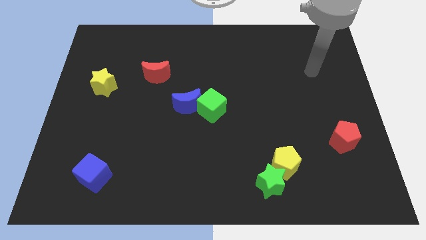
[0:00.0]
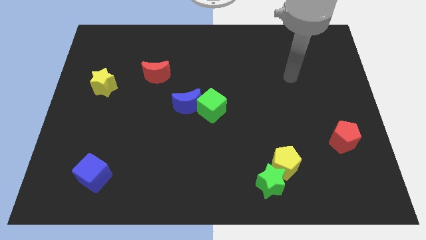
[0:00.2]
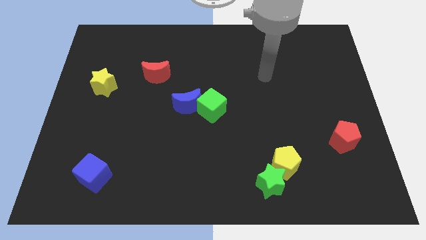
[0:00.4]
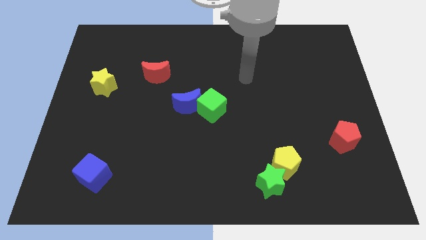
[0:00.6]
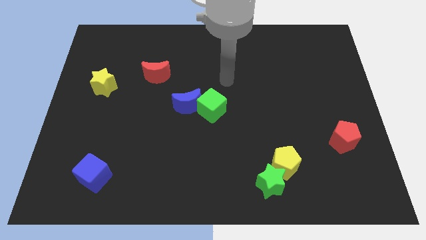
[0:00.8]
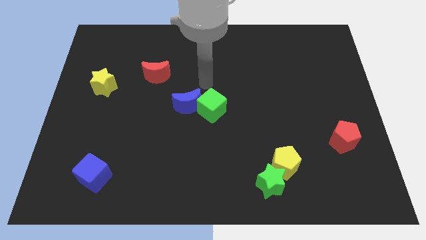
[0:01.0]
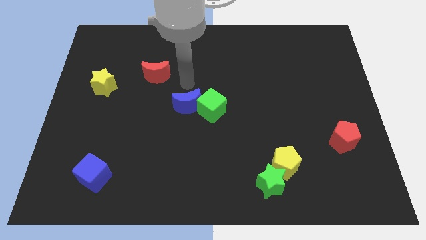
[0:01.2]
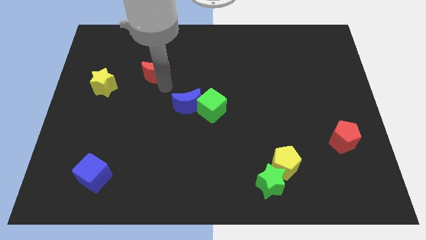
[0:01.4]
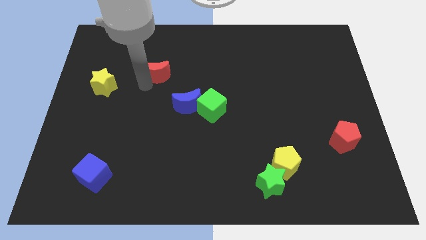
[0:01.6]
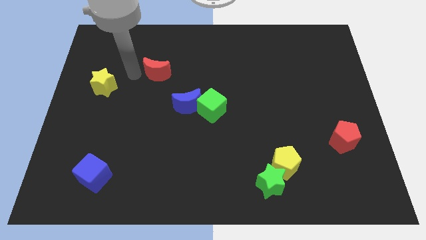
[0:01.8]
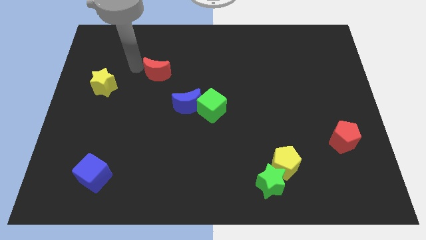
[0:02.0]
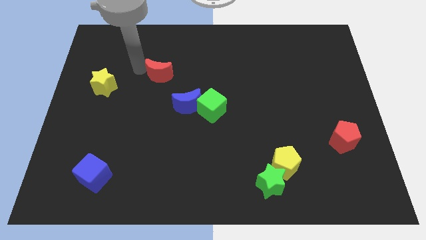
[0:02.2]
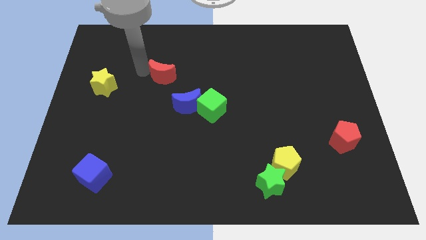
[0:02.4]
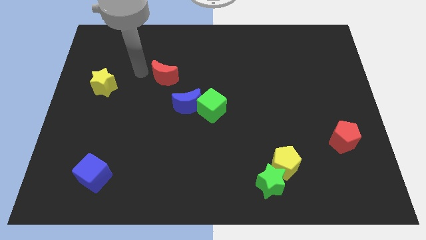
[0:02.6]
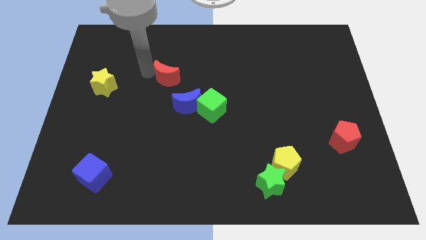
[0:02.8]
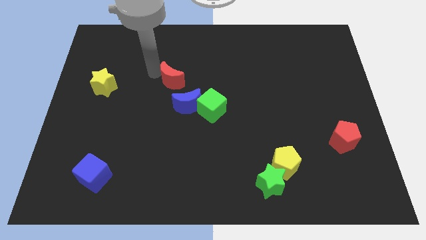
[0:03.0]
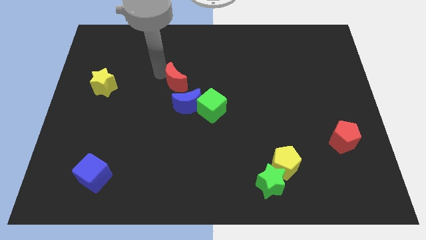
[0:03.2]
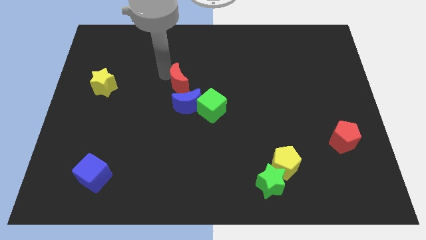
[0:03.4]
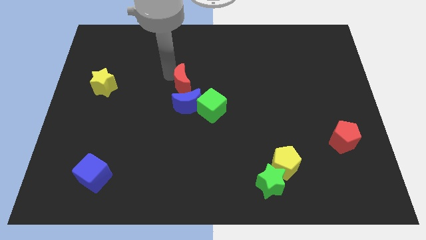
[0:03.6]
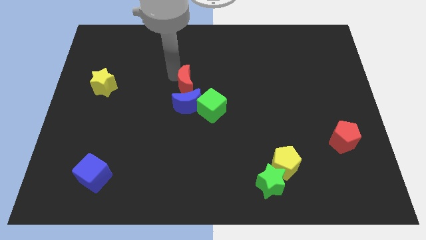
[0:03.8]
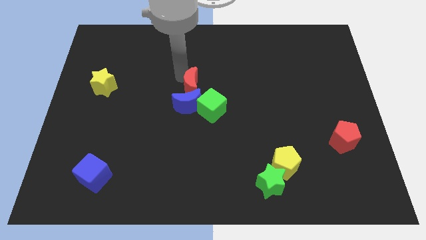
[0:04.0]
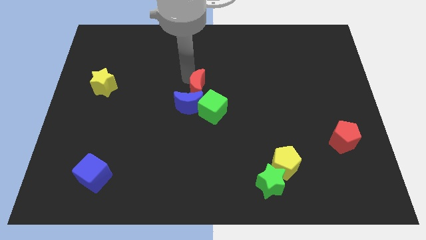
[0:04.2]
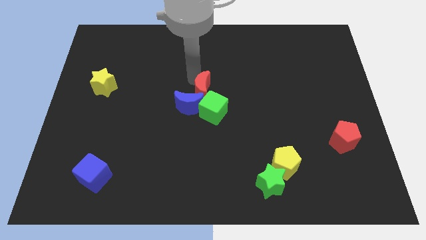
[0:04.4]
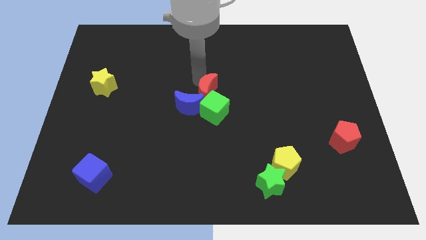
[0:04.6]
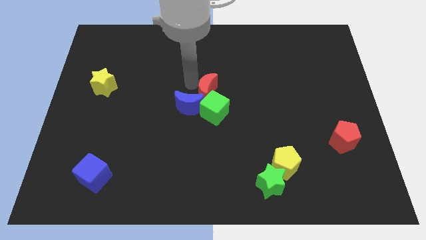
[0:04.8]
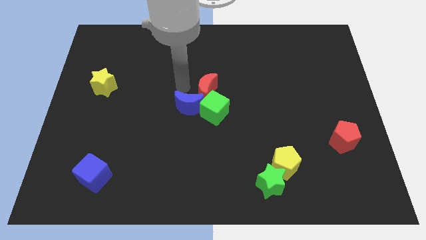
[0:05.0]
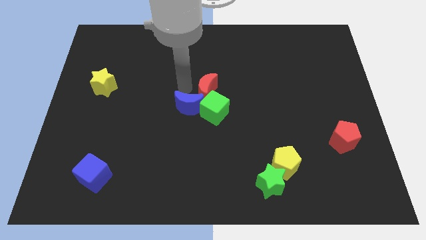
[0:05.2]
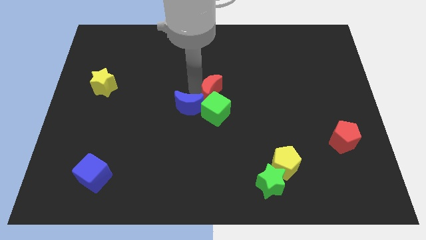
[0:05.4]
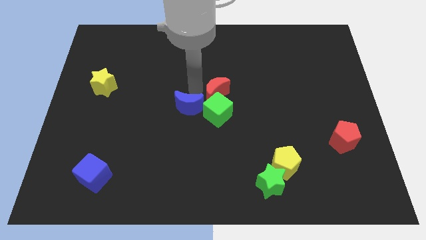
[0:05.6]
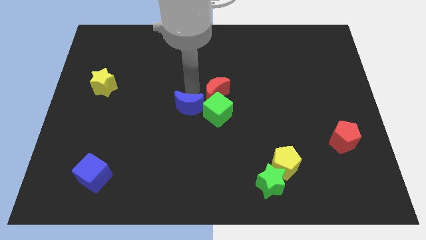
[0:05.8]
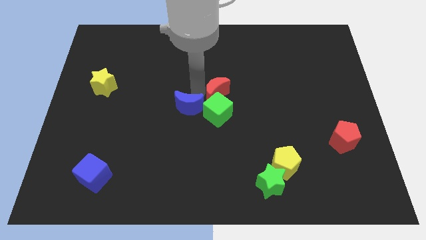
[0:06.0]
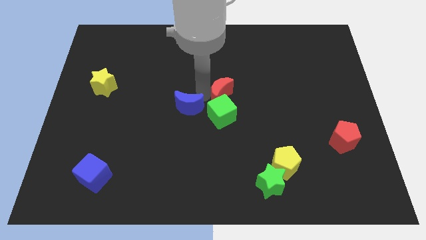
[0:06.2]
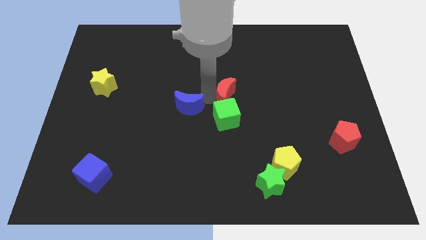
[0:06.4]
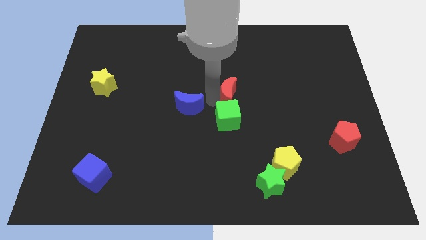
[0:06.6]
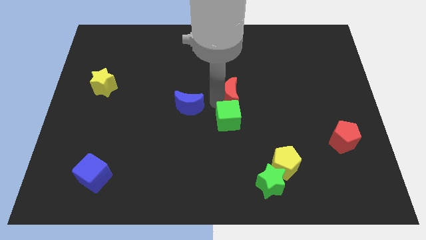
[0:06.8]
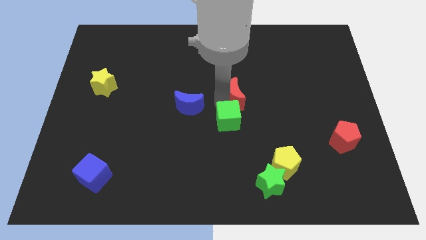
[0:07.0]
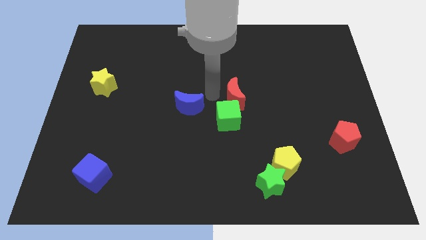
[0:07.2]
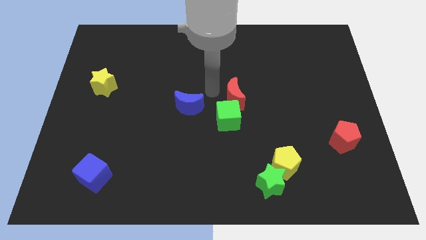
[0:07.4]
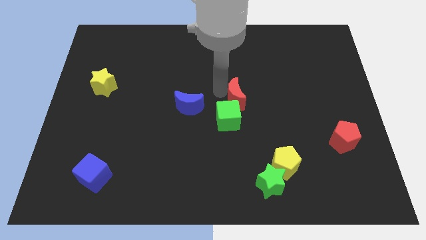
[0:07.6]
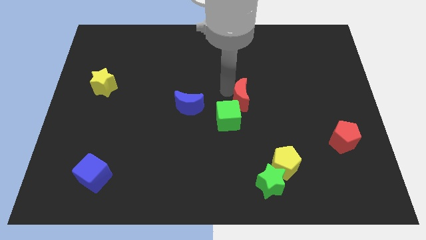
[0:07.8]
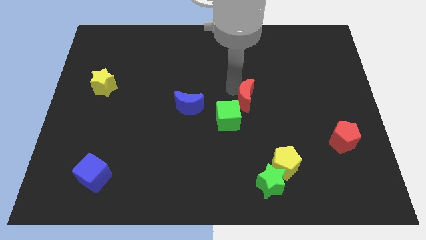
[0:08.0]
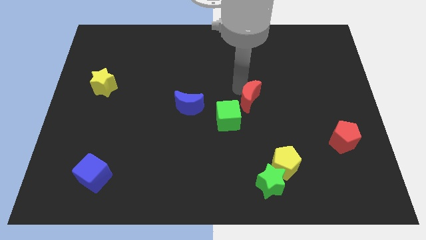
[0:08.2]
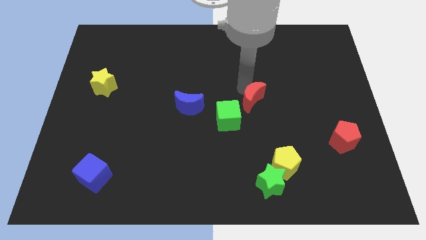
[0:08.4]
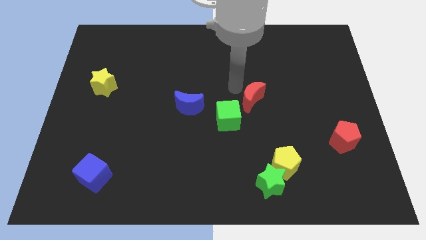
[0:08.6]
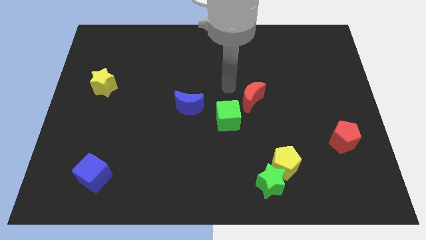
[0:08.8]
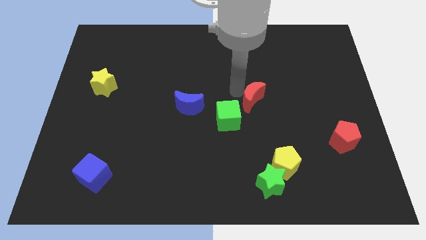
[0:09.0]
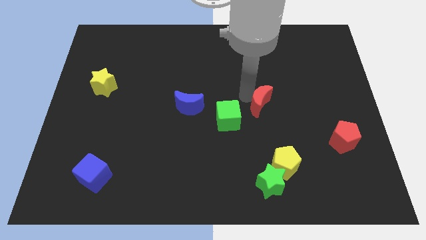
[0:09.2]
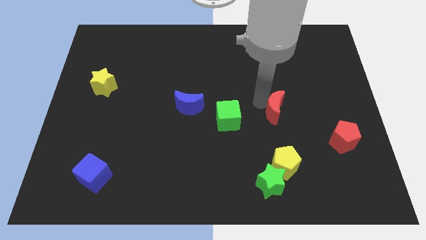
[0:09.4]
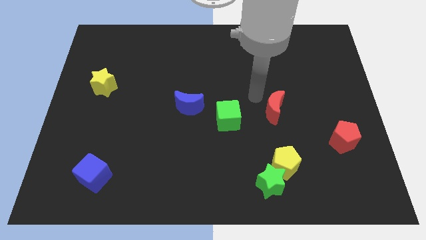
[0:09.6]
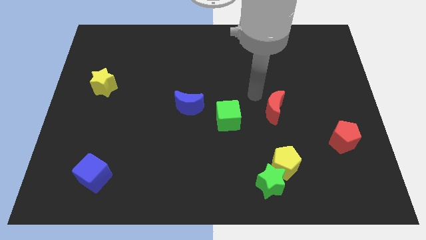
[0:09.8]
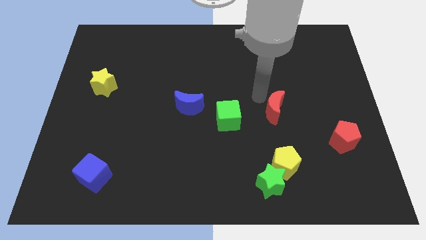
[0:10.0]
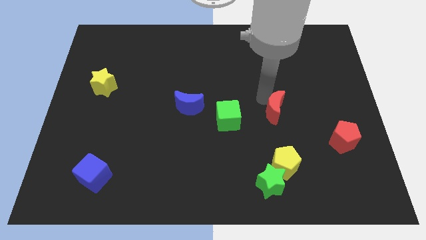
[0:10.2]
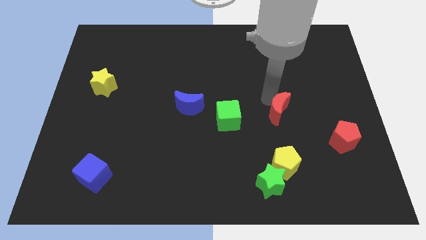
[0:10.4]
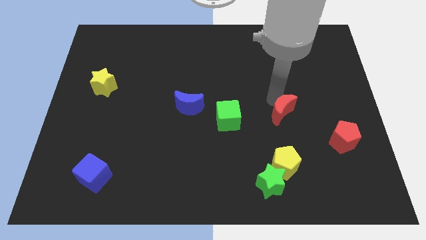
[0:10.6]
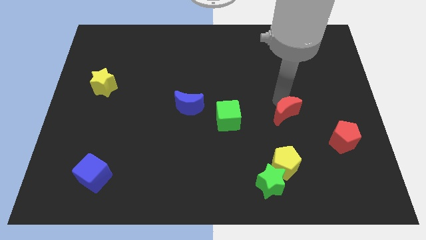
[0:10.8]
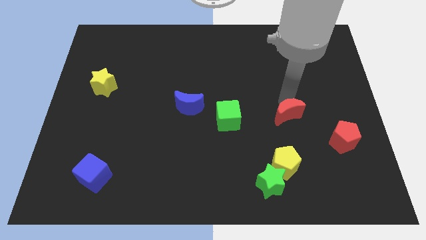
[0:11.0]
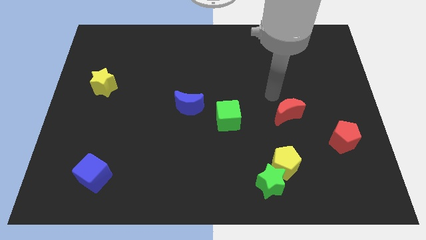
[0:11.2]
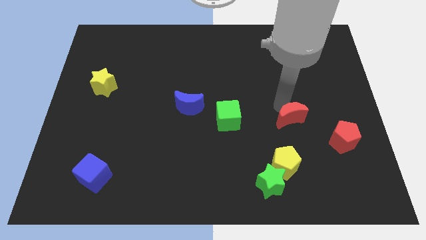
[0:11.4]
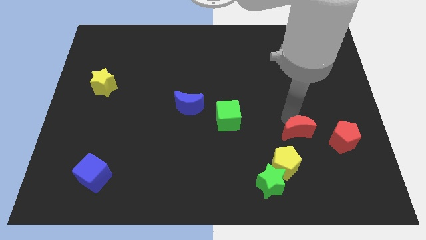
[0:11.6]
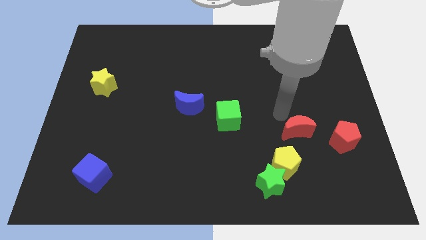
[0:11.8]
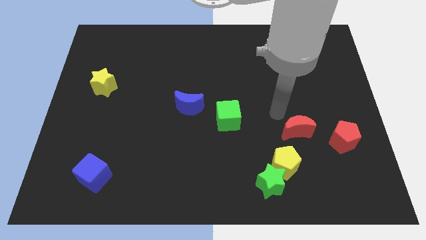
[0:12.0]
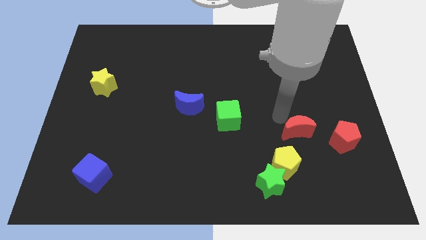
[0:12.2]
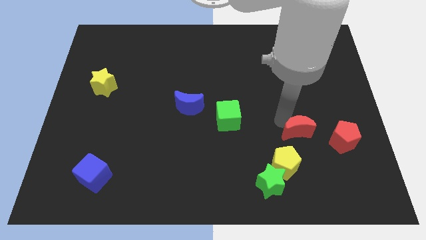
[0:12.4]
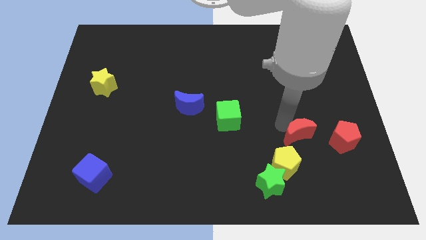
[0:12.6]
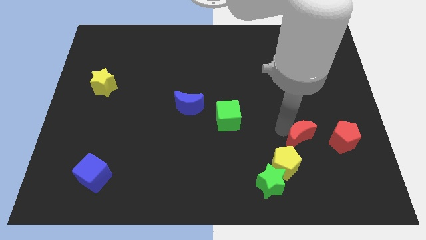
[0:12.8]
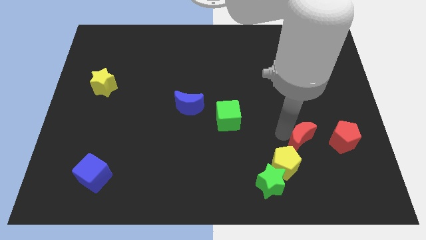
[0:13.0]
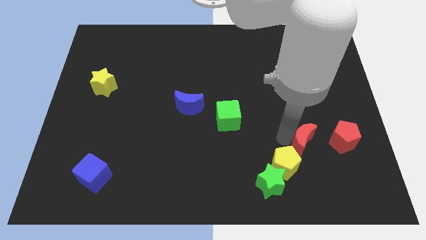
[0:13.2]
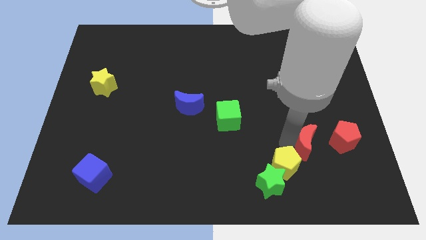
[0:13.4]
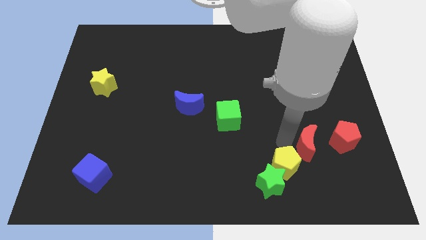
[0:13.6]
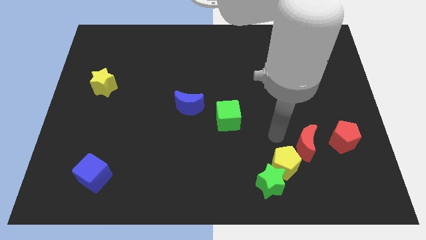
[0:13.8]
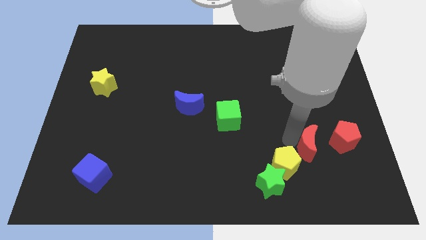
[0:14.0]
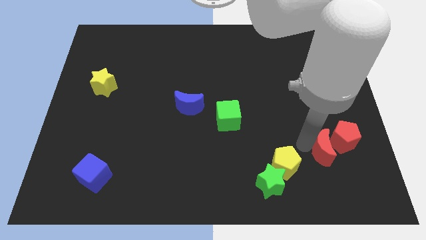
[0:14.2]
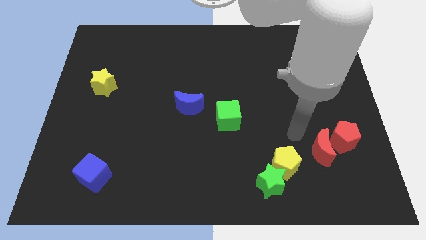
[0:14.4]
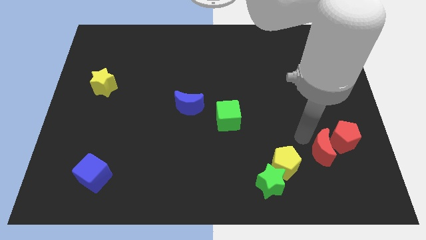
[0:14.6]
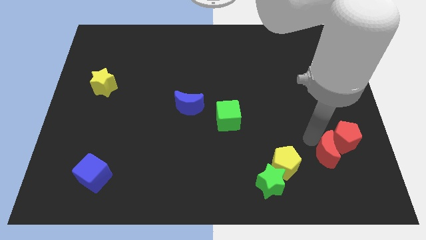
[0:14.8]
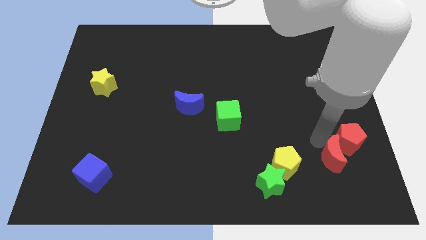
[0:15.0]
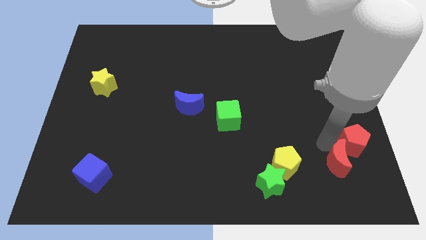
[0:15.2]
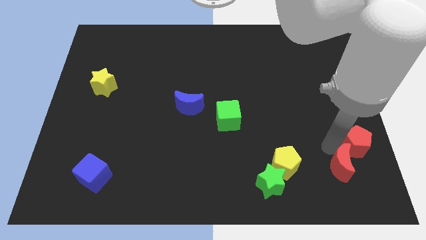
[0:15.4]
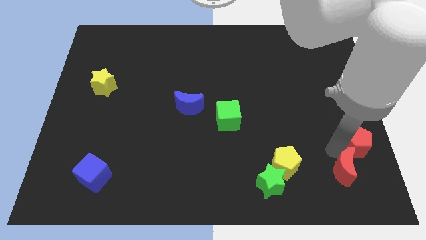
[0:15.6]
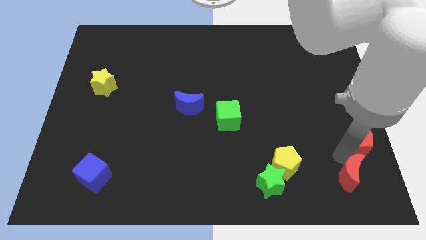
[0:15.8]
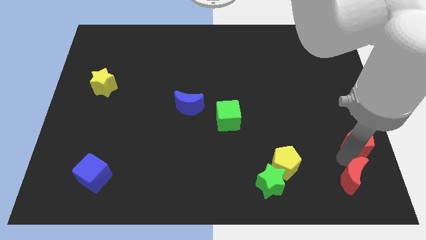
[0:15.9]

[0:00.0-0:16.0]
push the red moon to the bottom right corner
